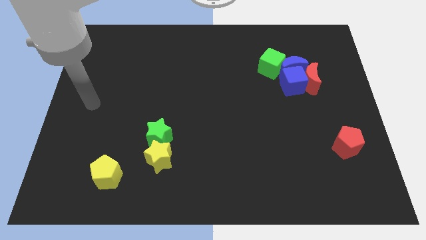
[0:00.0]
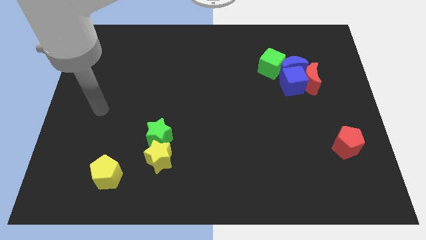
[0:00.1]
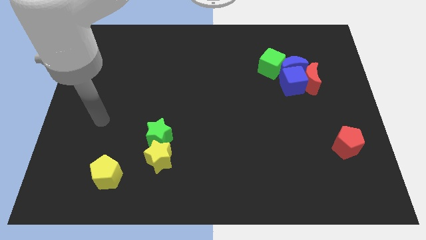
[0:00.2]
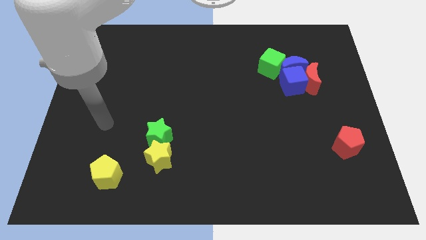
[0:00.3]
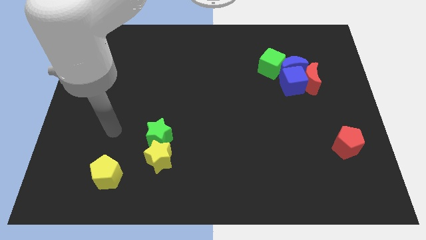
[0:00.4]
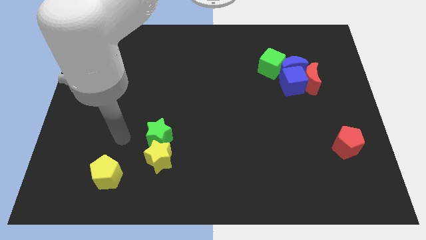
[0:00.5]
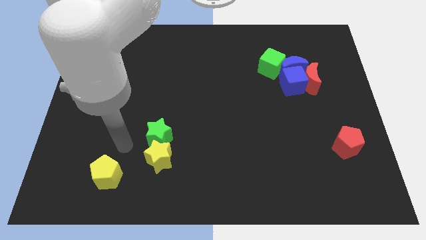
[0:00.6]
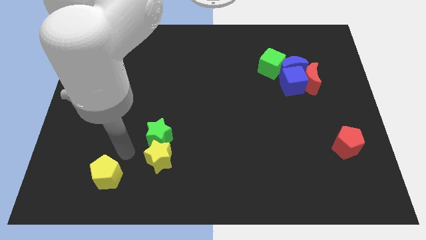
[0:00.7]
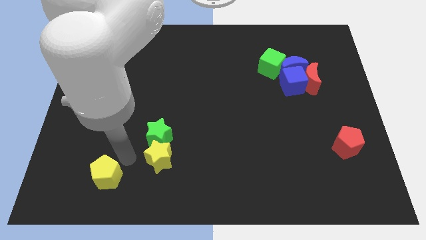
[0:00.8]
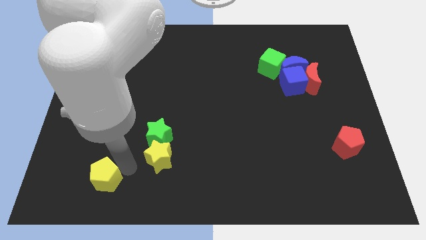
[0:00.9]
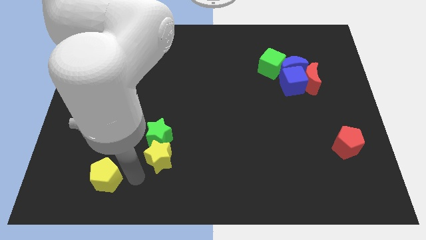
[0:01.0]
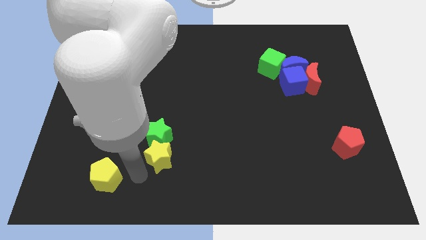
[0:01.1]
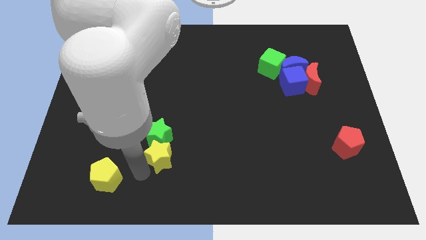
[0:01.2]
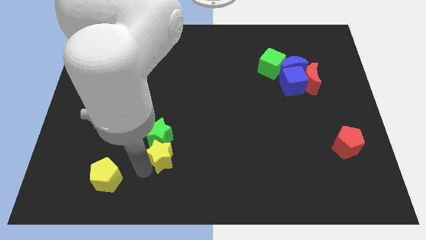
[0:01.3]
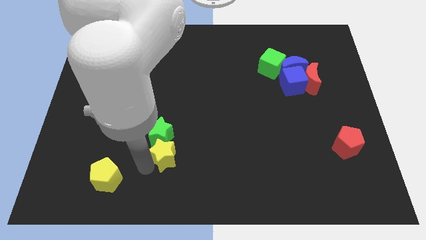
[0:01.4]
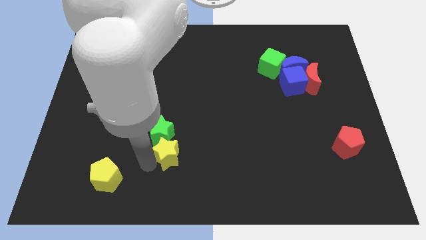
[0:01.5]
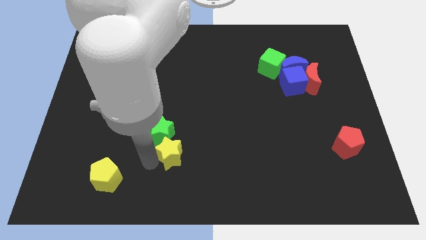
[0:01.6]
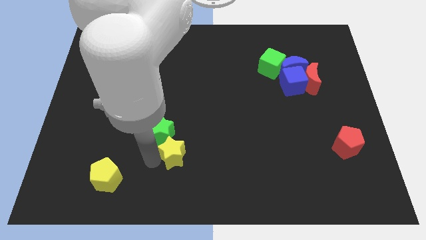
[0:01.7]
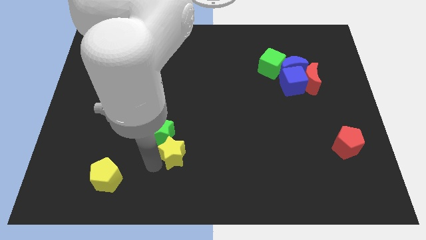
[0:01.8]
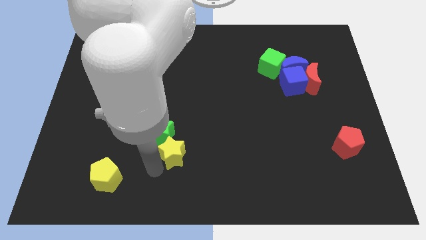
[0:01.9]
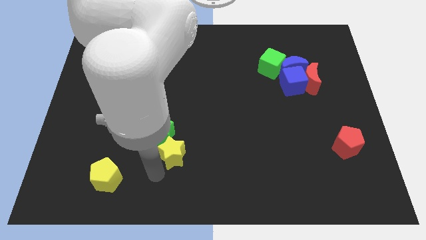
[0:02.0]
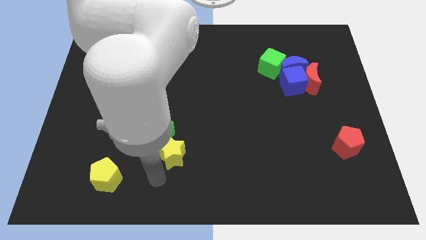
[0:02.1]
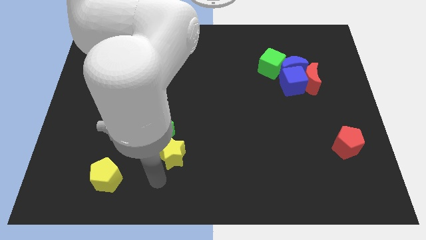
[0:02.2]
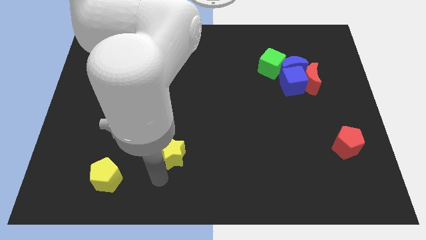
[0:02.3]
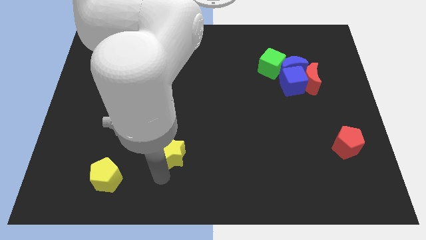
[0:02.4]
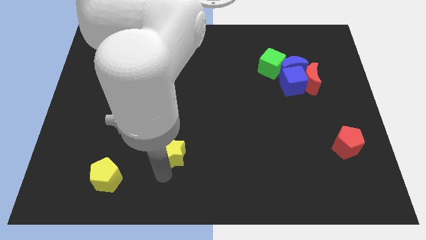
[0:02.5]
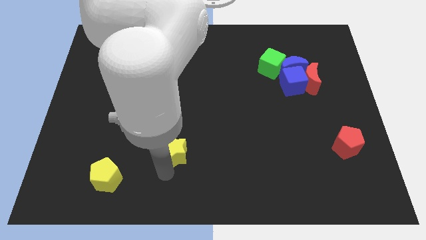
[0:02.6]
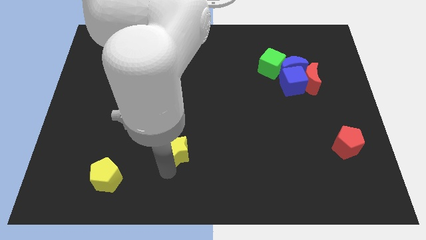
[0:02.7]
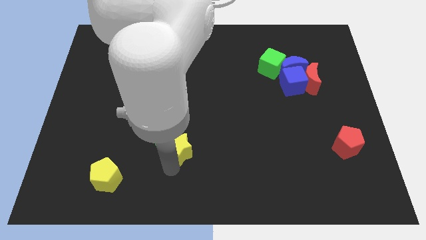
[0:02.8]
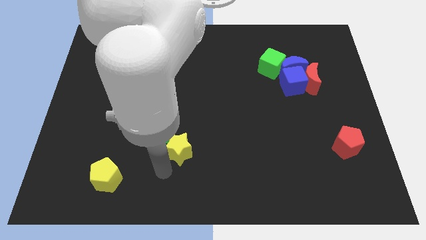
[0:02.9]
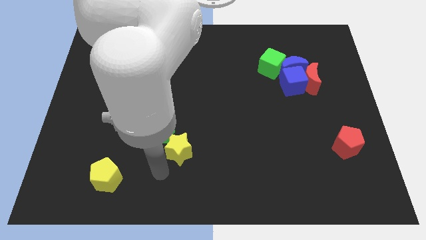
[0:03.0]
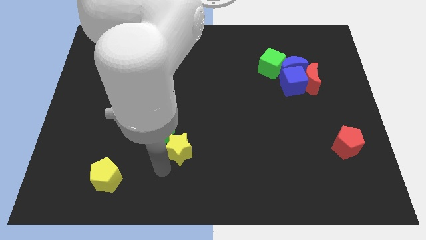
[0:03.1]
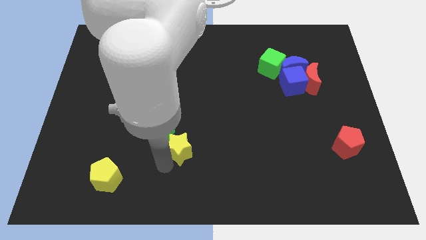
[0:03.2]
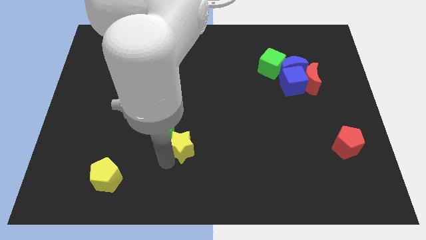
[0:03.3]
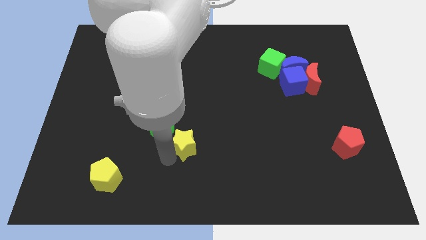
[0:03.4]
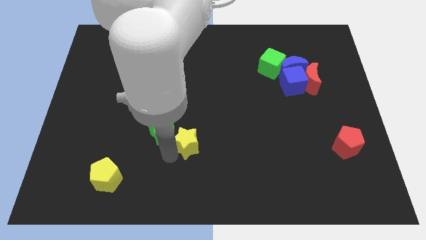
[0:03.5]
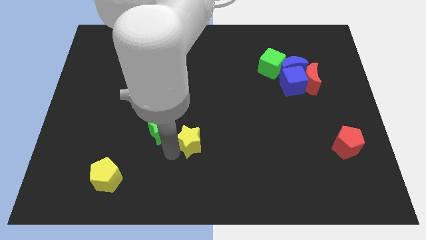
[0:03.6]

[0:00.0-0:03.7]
slide the yellow star upwards and right somewhat

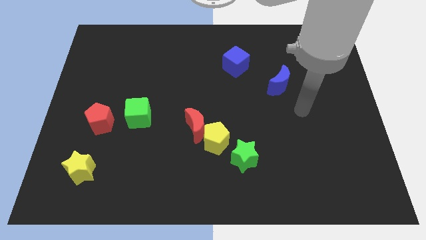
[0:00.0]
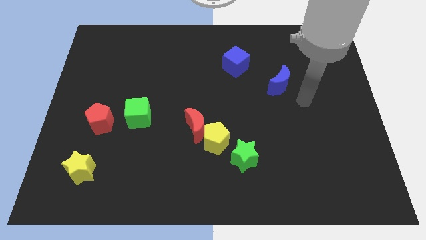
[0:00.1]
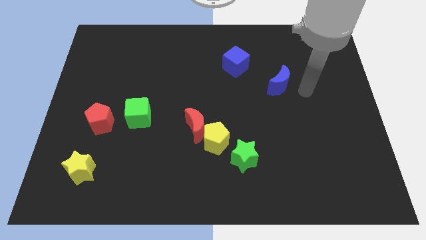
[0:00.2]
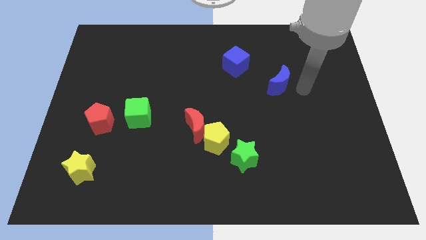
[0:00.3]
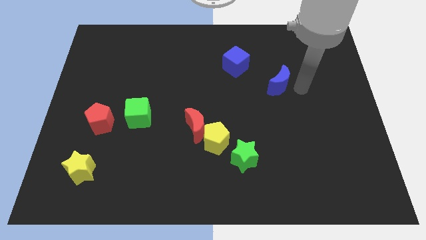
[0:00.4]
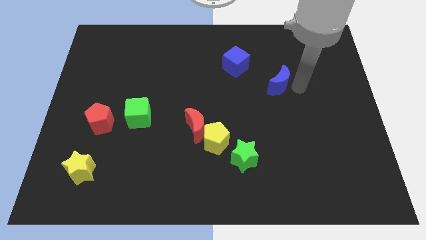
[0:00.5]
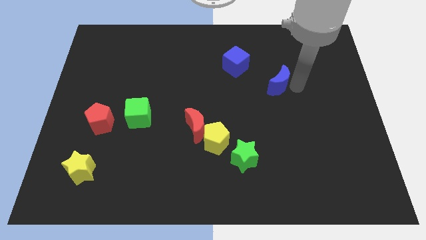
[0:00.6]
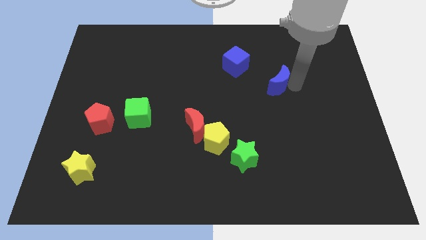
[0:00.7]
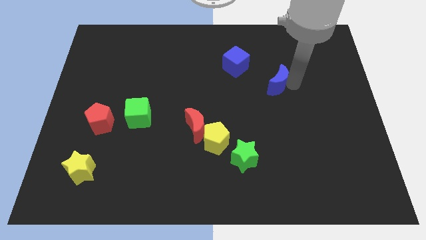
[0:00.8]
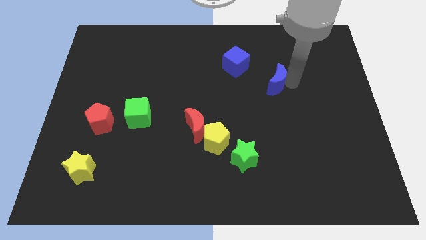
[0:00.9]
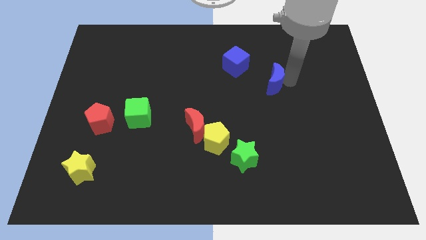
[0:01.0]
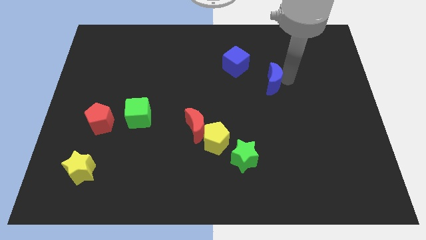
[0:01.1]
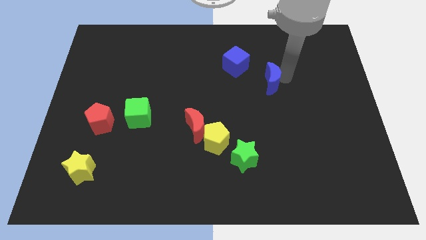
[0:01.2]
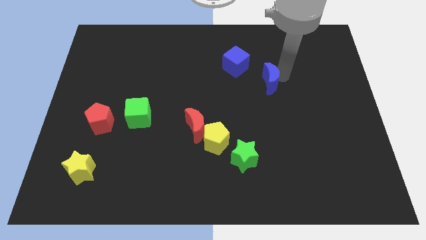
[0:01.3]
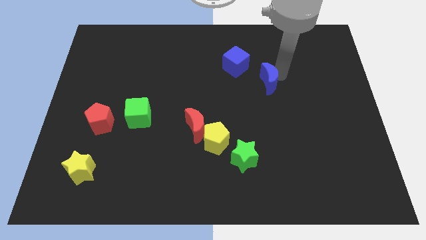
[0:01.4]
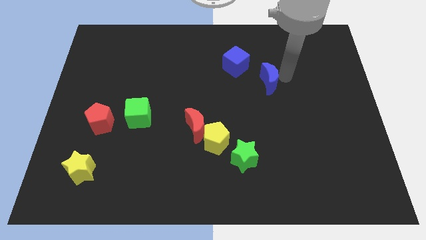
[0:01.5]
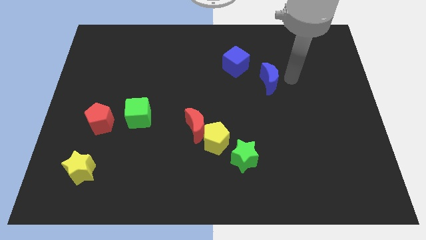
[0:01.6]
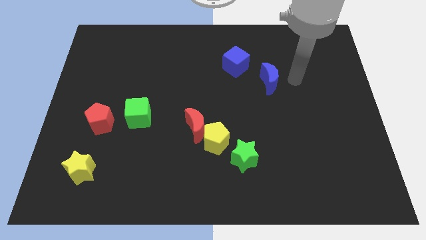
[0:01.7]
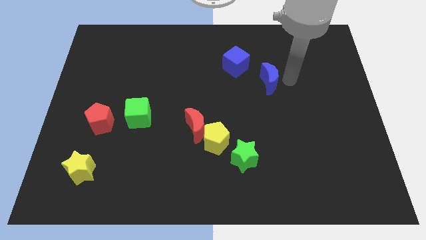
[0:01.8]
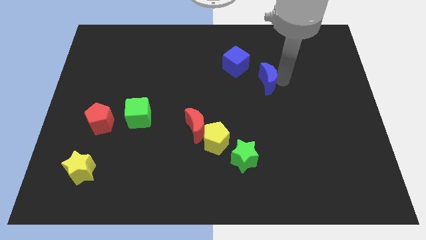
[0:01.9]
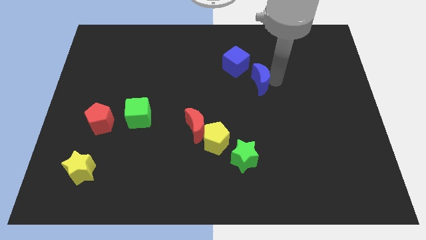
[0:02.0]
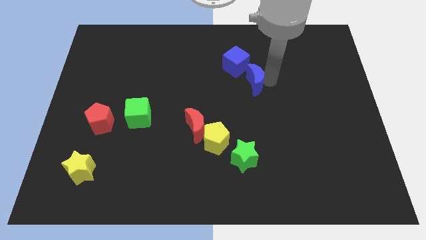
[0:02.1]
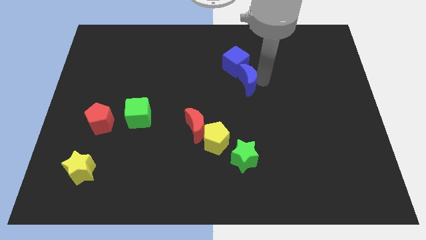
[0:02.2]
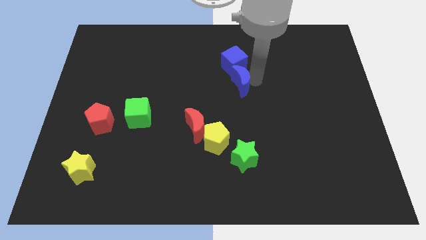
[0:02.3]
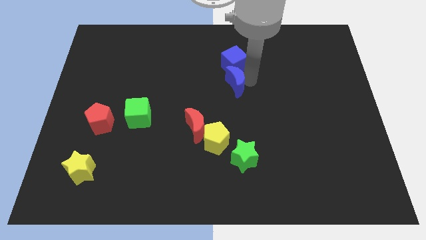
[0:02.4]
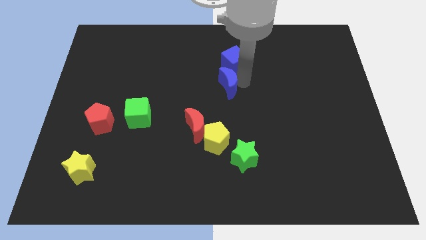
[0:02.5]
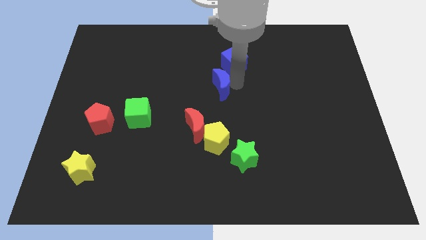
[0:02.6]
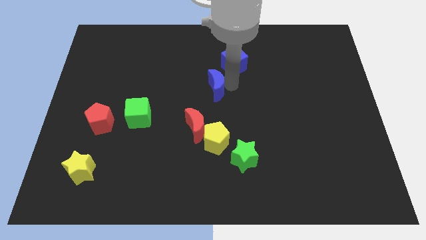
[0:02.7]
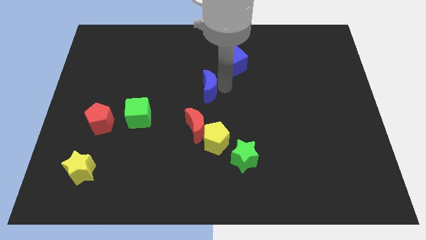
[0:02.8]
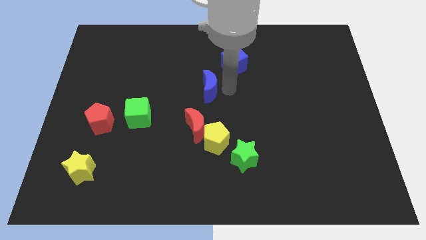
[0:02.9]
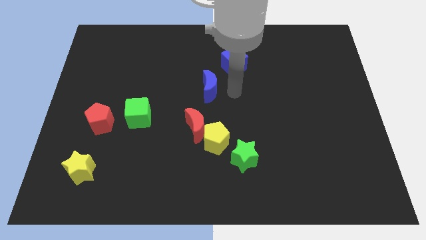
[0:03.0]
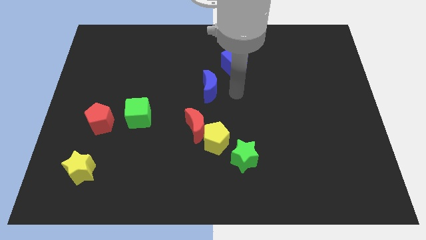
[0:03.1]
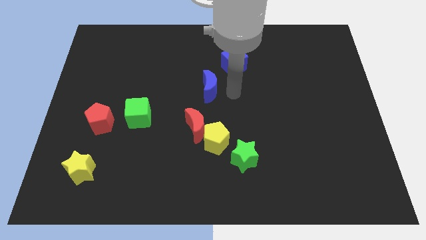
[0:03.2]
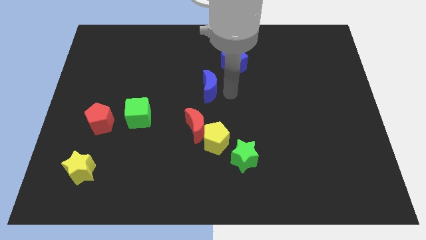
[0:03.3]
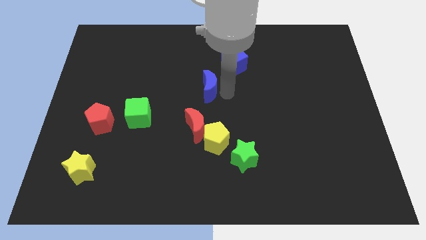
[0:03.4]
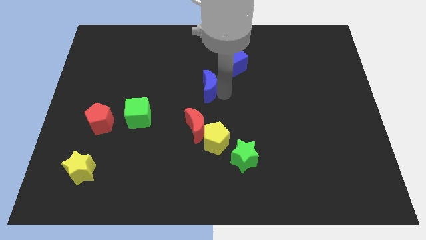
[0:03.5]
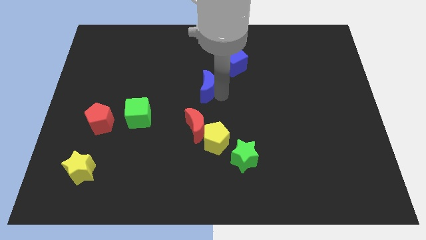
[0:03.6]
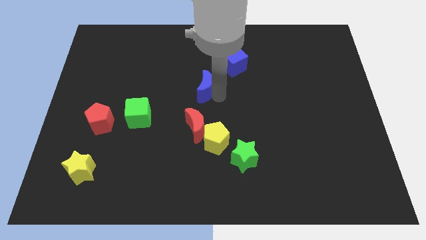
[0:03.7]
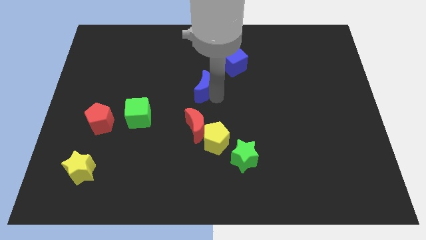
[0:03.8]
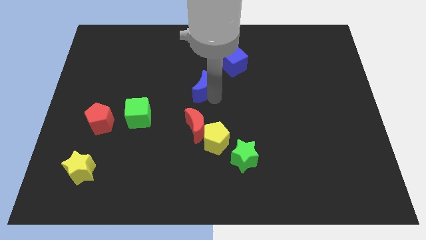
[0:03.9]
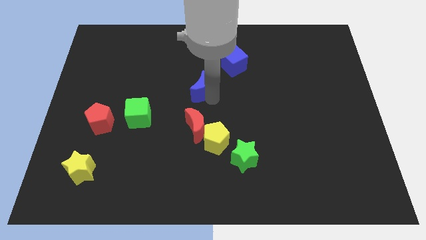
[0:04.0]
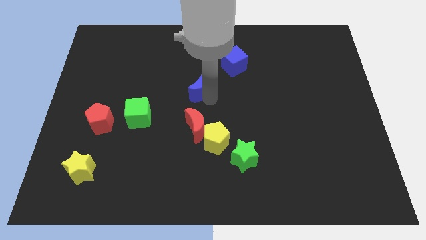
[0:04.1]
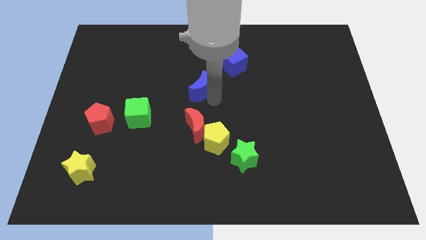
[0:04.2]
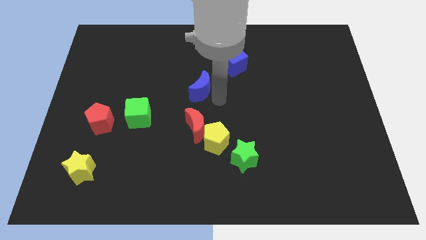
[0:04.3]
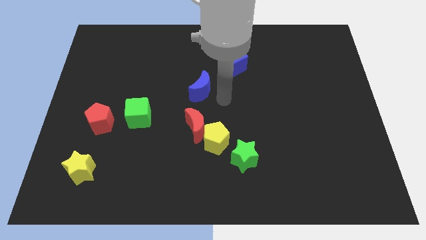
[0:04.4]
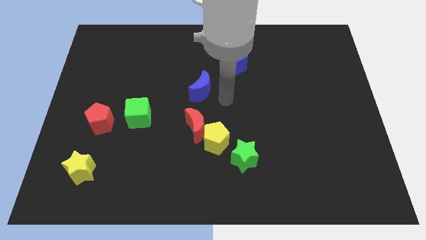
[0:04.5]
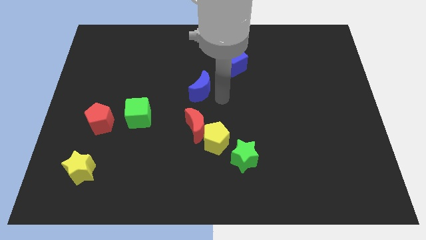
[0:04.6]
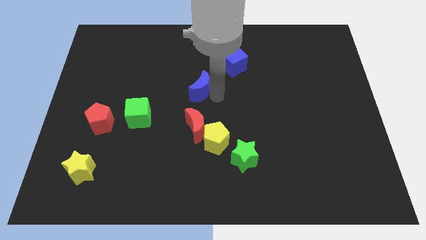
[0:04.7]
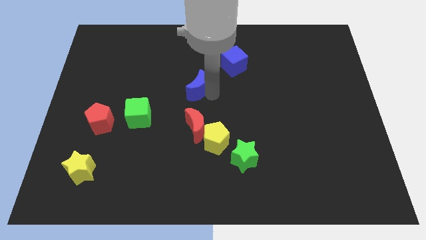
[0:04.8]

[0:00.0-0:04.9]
slide the blue moon to the left
